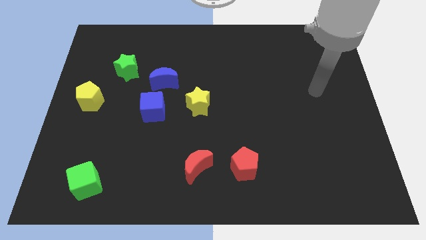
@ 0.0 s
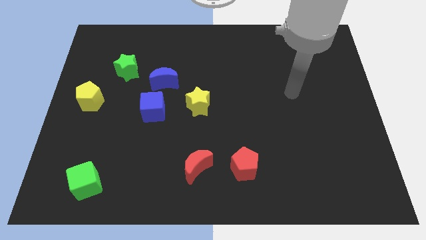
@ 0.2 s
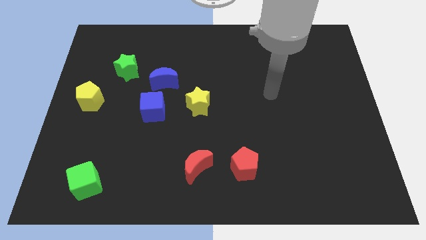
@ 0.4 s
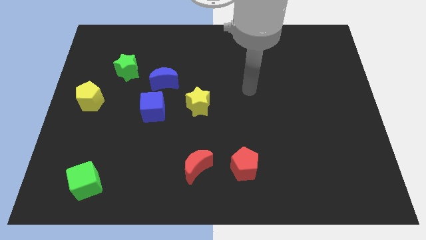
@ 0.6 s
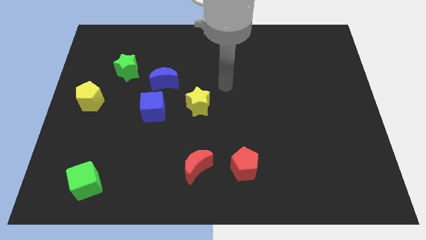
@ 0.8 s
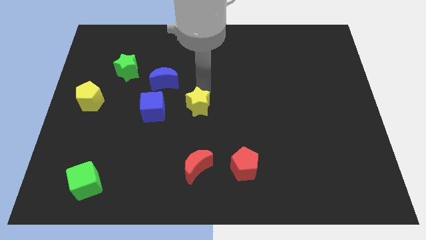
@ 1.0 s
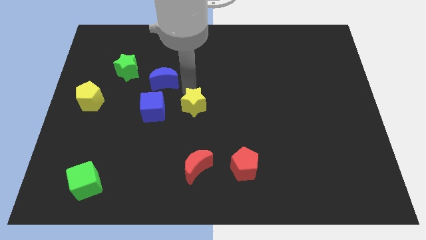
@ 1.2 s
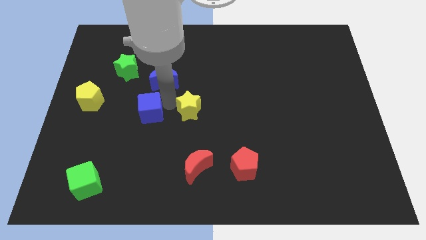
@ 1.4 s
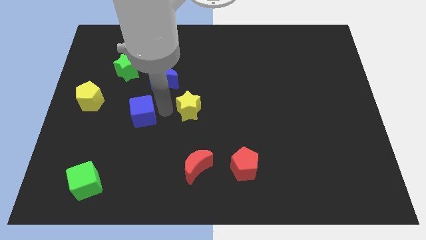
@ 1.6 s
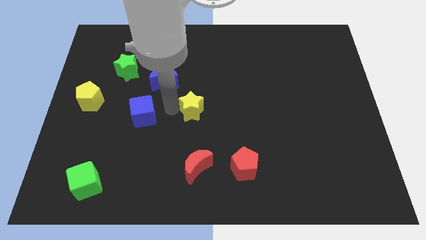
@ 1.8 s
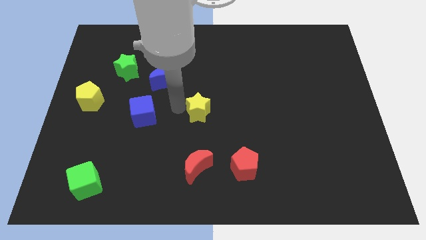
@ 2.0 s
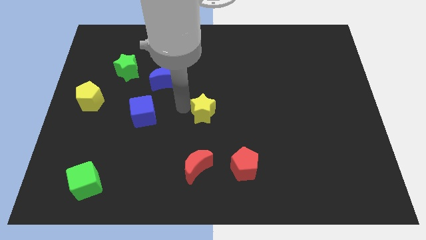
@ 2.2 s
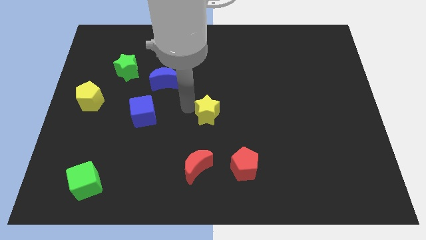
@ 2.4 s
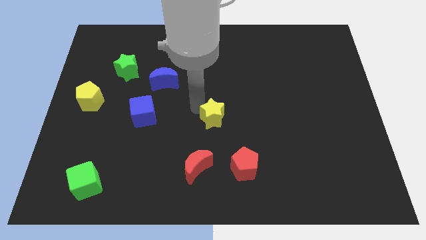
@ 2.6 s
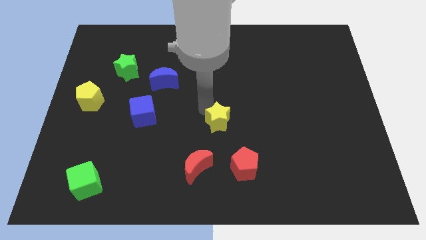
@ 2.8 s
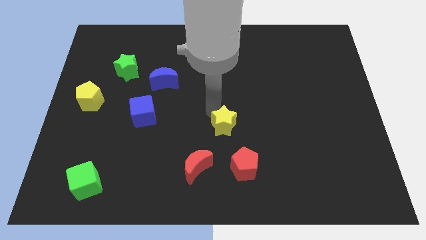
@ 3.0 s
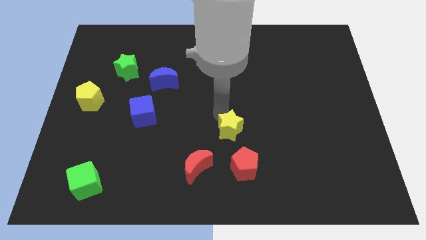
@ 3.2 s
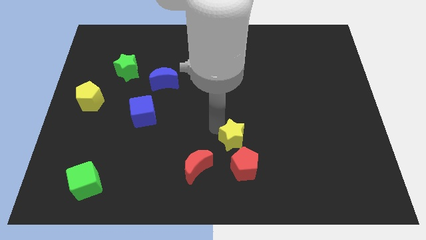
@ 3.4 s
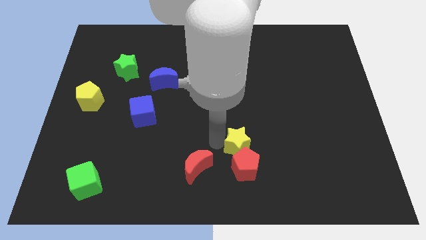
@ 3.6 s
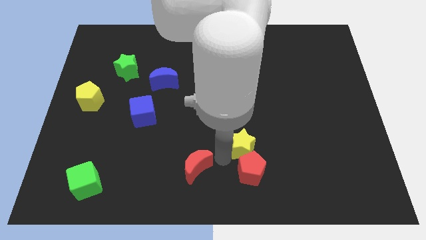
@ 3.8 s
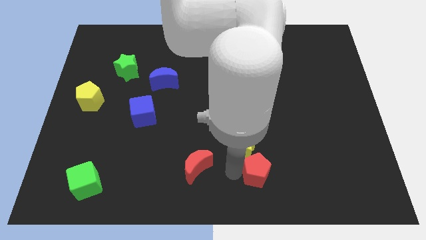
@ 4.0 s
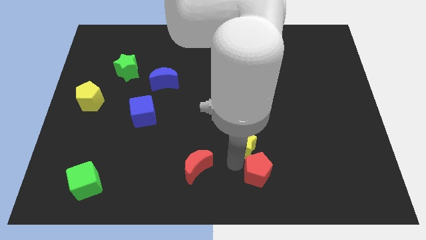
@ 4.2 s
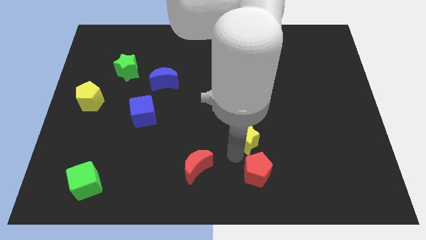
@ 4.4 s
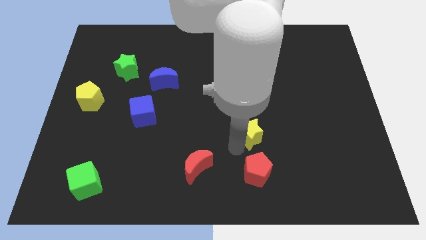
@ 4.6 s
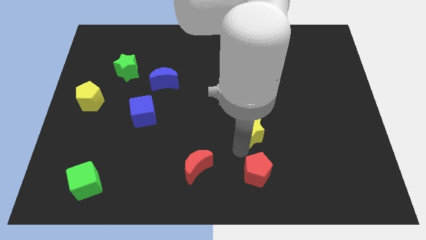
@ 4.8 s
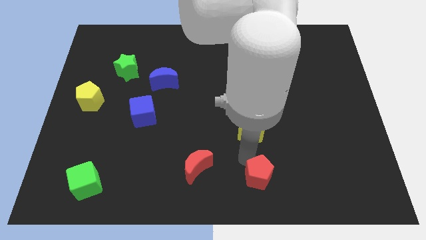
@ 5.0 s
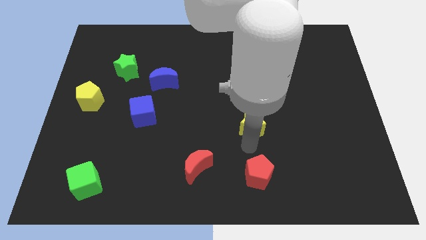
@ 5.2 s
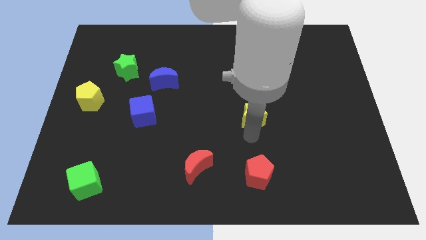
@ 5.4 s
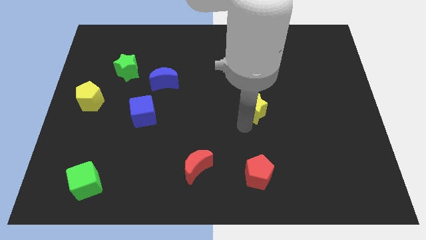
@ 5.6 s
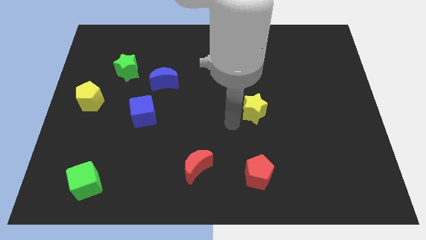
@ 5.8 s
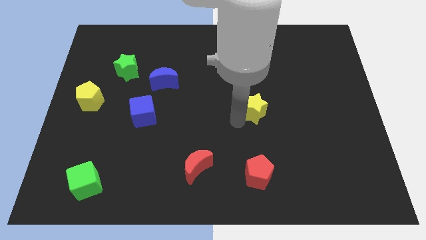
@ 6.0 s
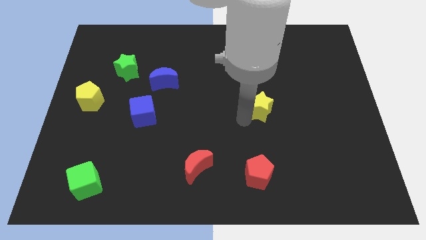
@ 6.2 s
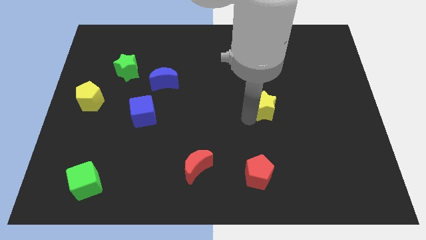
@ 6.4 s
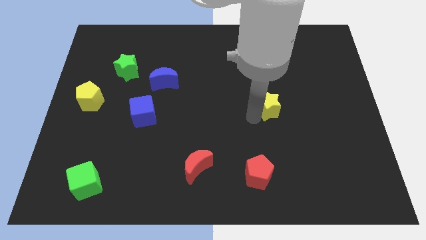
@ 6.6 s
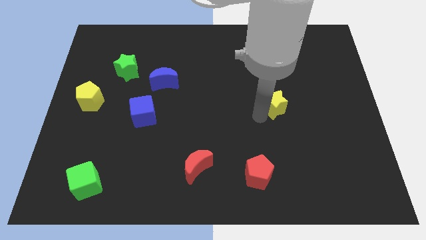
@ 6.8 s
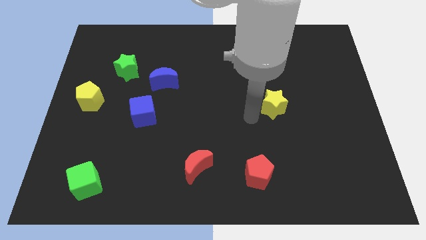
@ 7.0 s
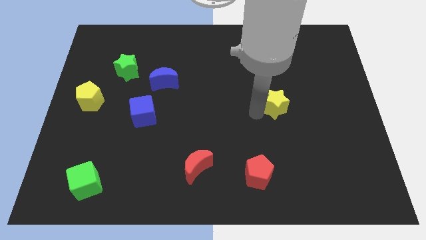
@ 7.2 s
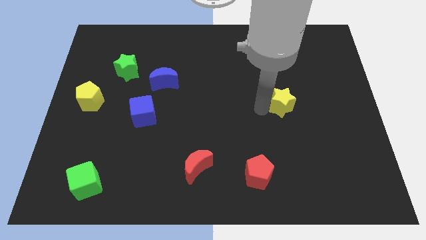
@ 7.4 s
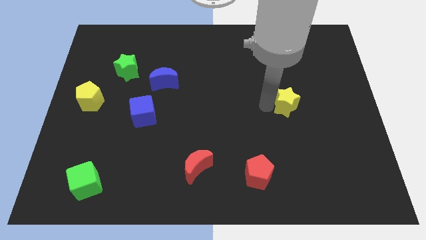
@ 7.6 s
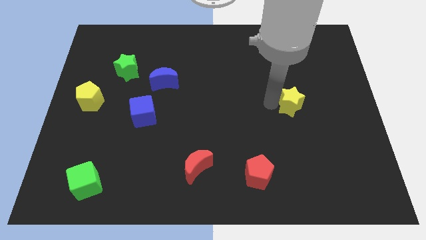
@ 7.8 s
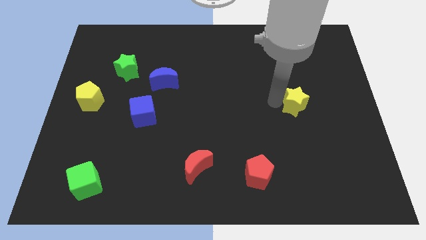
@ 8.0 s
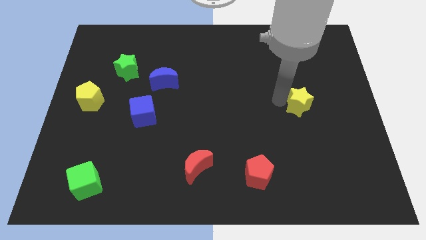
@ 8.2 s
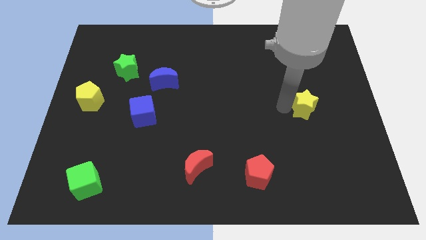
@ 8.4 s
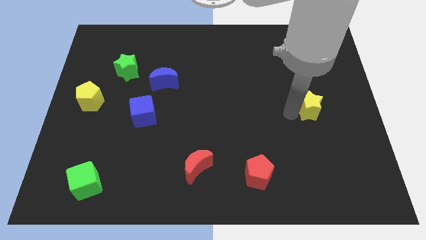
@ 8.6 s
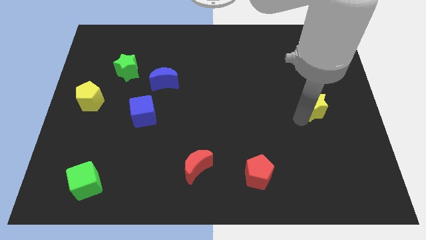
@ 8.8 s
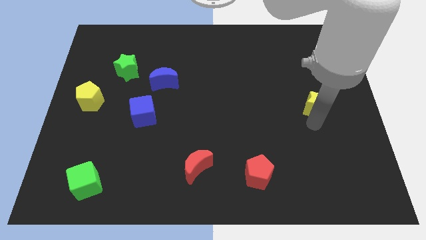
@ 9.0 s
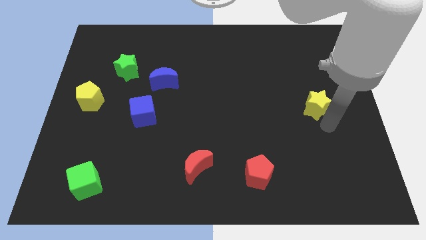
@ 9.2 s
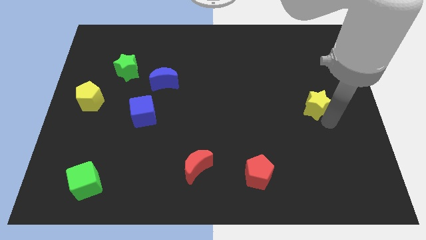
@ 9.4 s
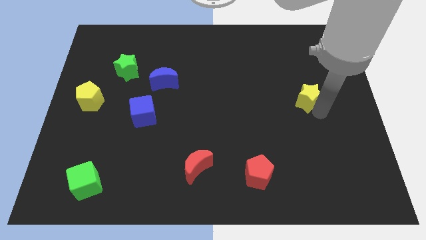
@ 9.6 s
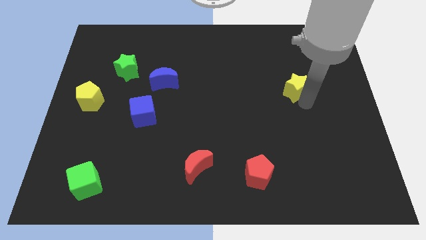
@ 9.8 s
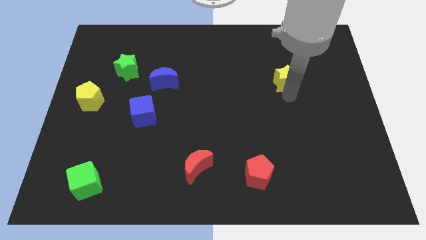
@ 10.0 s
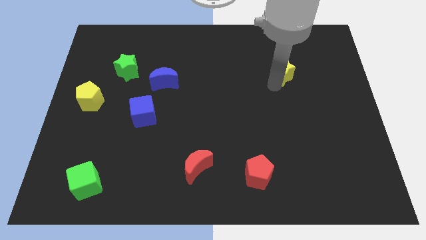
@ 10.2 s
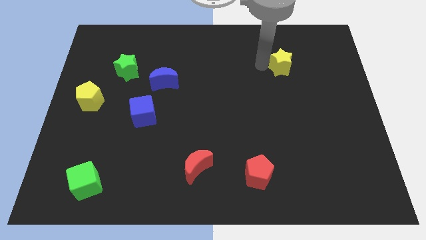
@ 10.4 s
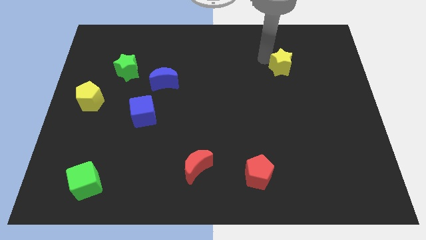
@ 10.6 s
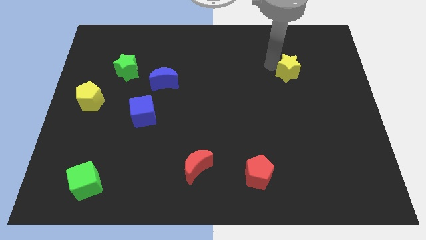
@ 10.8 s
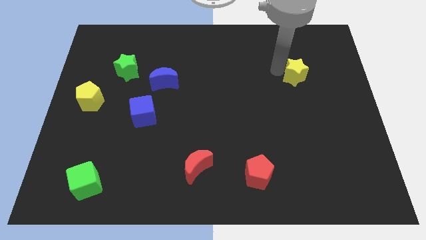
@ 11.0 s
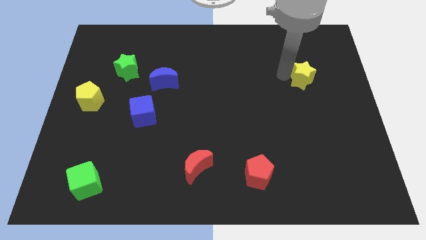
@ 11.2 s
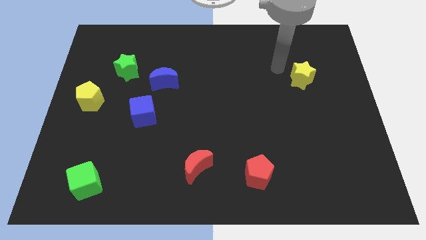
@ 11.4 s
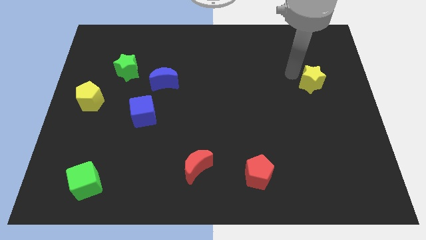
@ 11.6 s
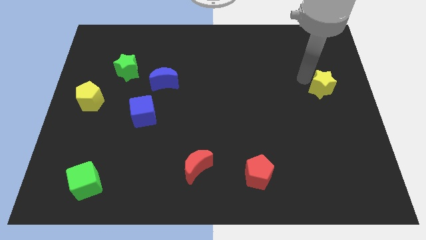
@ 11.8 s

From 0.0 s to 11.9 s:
put the yellow star to the center right

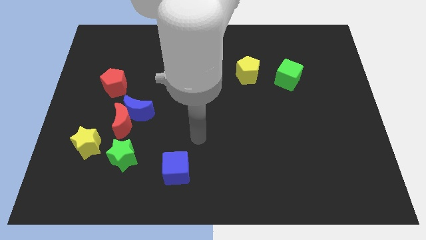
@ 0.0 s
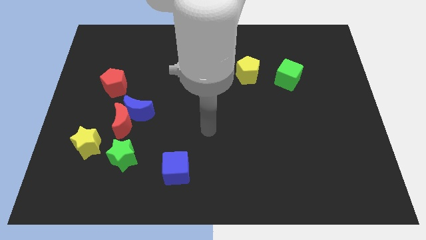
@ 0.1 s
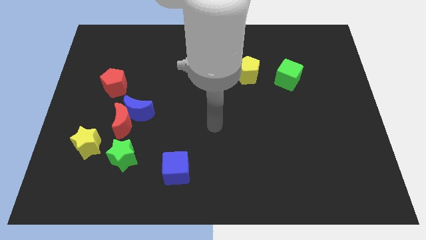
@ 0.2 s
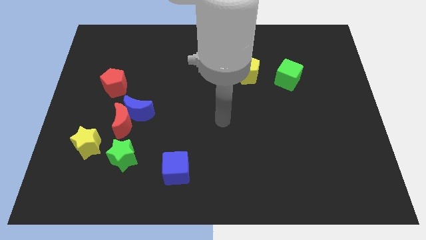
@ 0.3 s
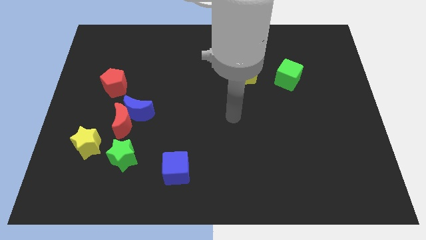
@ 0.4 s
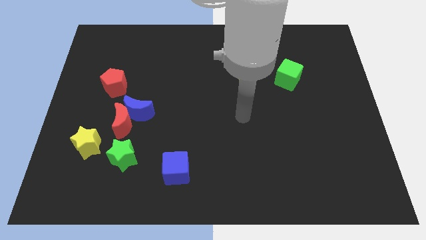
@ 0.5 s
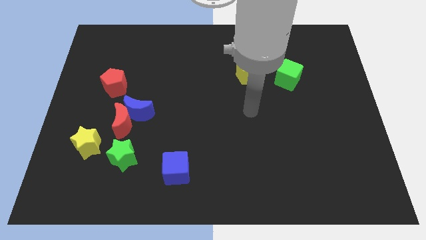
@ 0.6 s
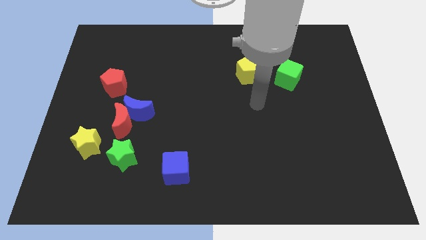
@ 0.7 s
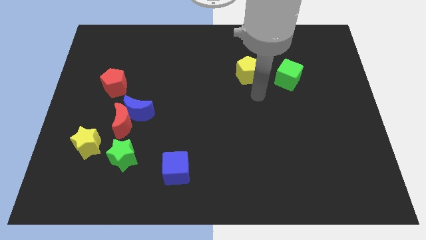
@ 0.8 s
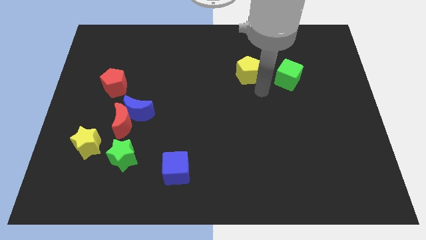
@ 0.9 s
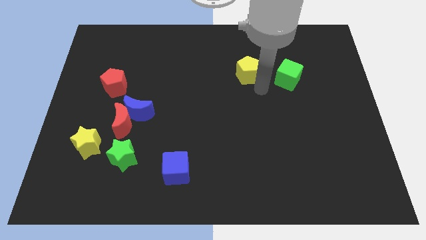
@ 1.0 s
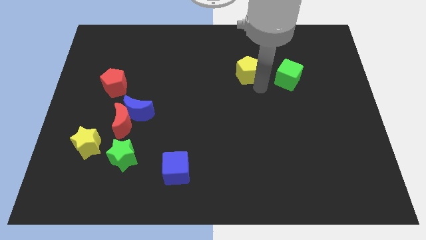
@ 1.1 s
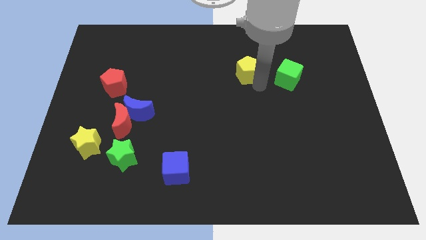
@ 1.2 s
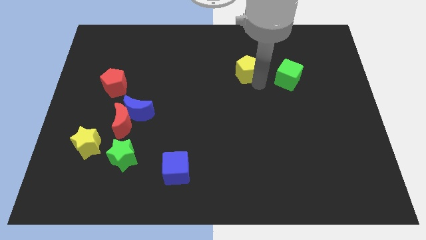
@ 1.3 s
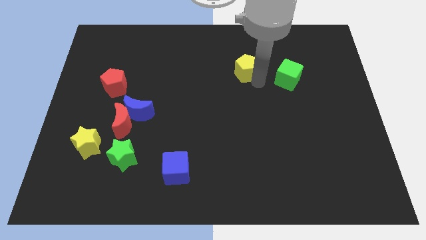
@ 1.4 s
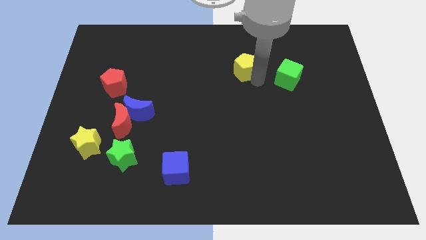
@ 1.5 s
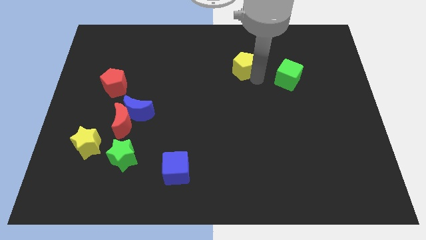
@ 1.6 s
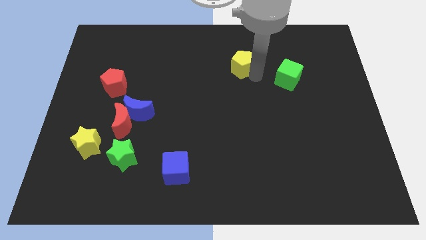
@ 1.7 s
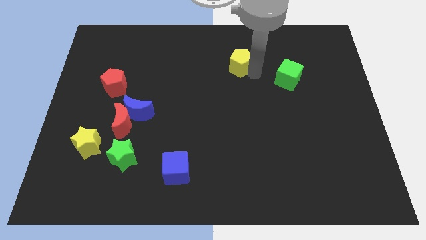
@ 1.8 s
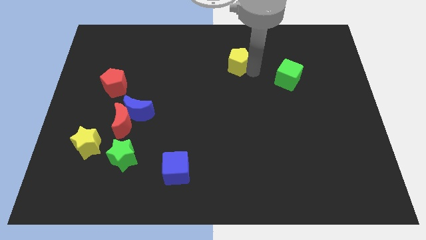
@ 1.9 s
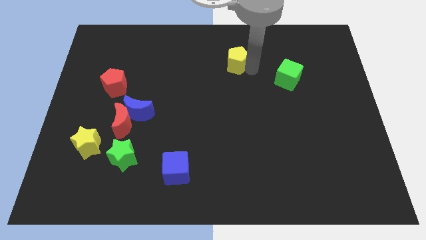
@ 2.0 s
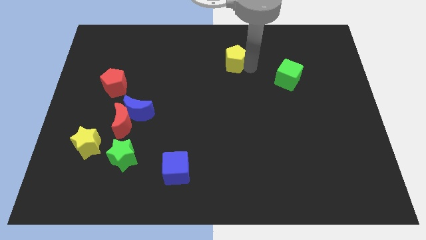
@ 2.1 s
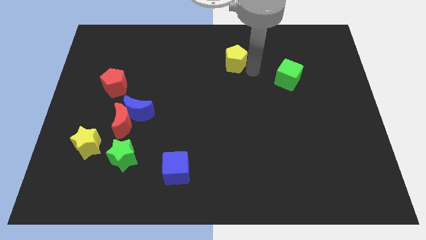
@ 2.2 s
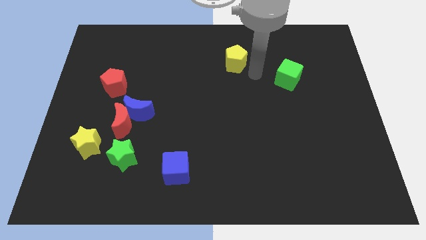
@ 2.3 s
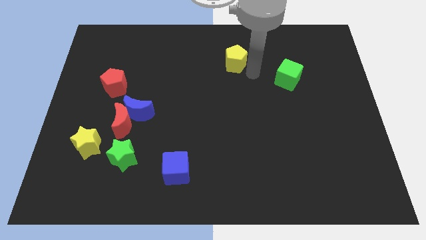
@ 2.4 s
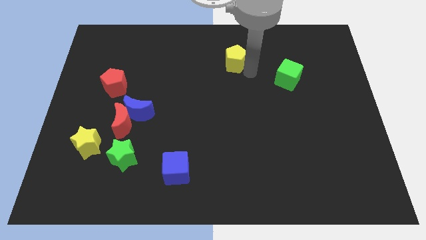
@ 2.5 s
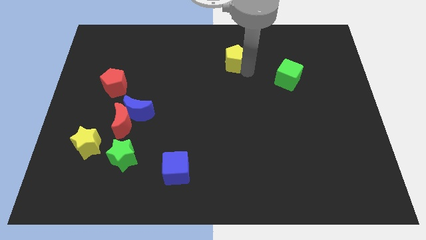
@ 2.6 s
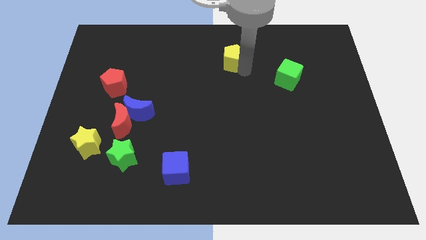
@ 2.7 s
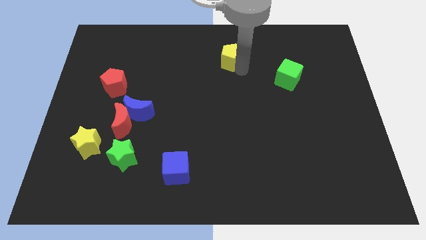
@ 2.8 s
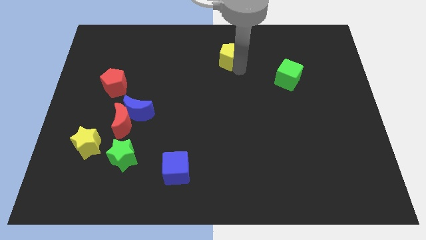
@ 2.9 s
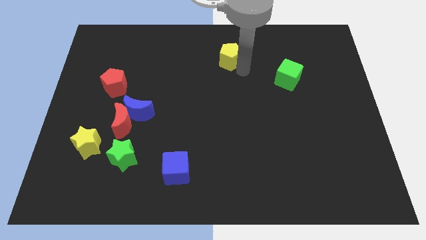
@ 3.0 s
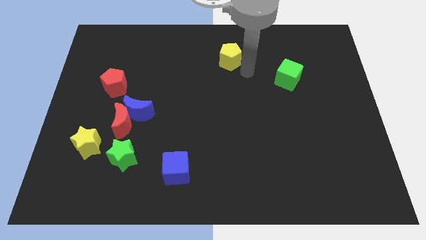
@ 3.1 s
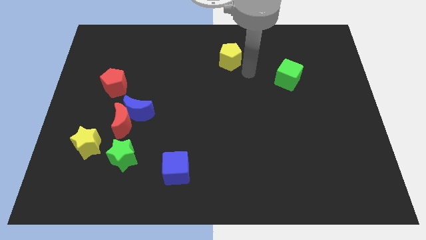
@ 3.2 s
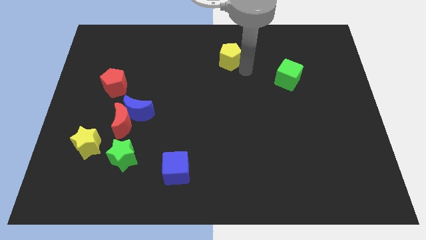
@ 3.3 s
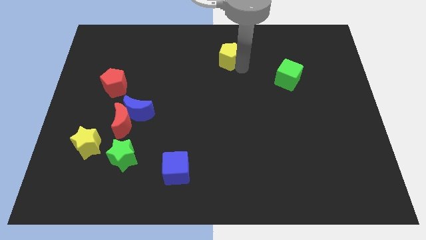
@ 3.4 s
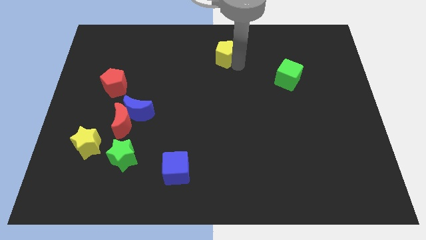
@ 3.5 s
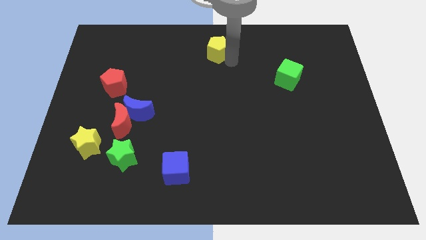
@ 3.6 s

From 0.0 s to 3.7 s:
put the yellow pentagon to the top side
